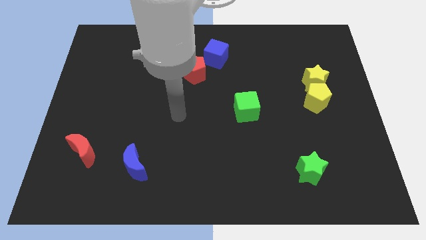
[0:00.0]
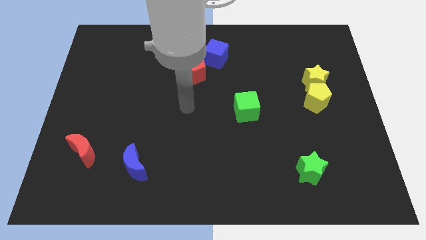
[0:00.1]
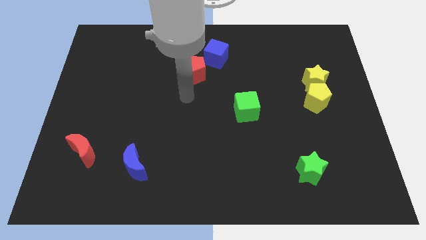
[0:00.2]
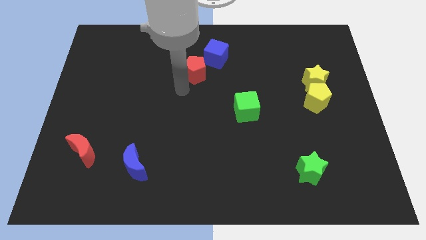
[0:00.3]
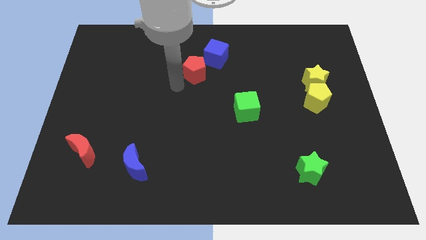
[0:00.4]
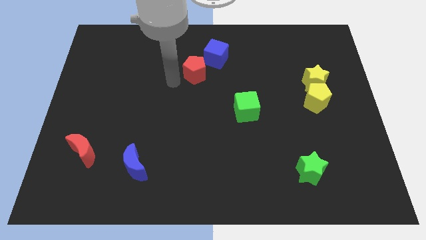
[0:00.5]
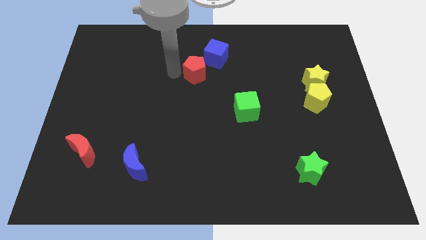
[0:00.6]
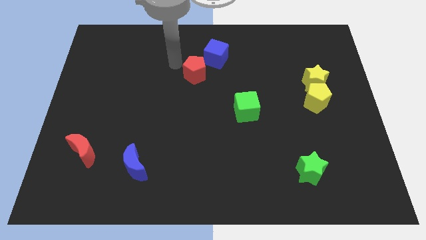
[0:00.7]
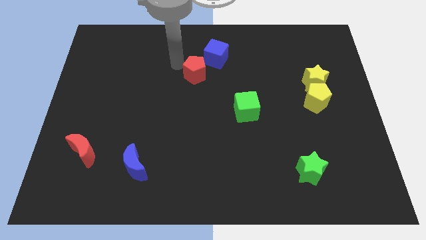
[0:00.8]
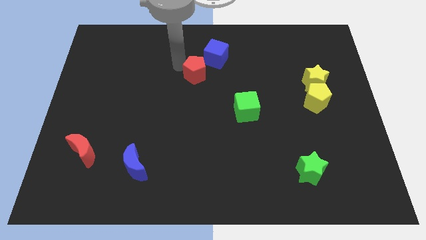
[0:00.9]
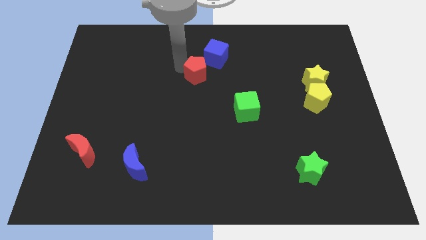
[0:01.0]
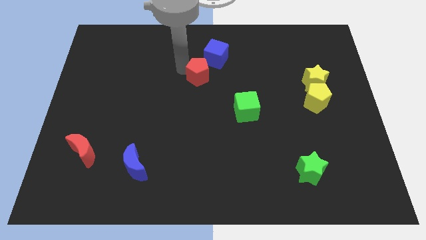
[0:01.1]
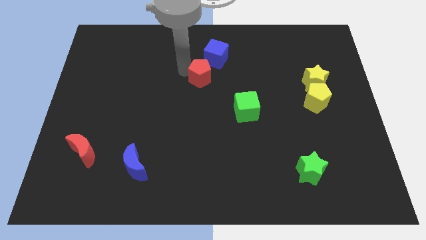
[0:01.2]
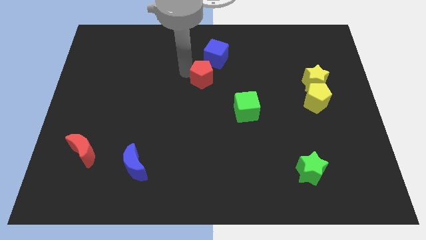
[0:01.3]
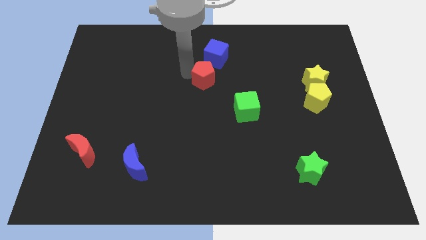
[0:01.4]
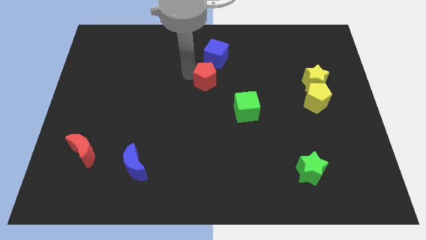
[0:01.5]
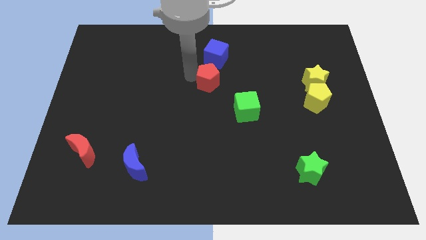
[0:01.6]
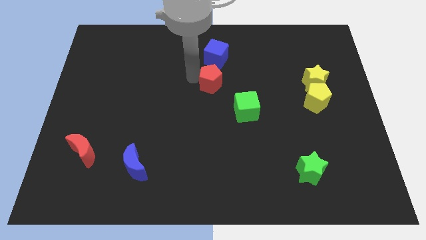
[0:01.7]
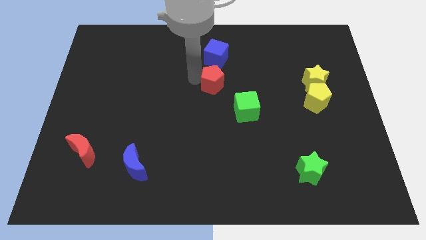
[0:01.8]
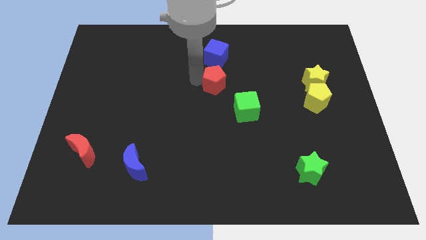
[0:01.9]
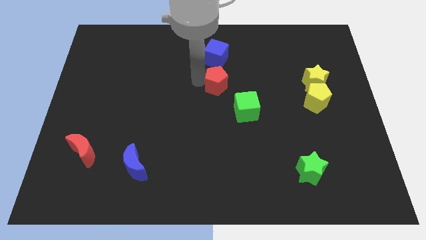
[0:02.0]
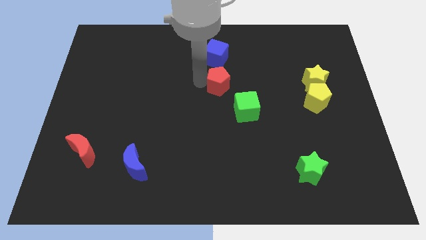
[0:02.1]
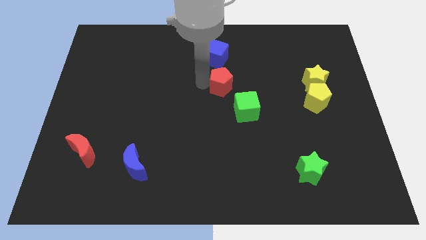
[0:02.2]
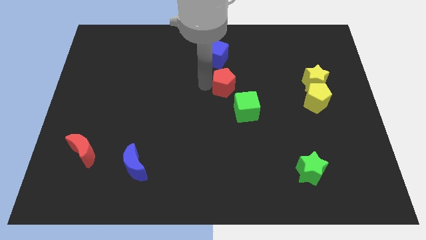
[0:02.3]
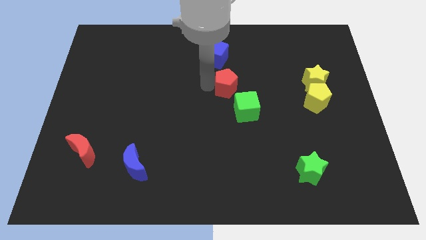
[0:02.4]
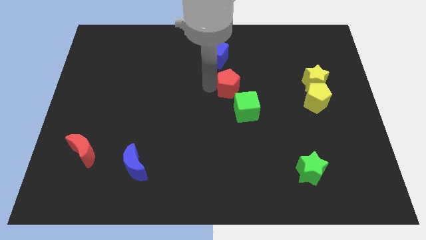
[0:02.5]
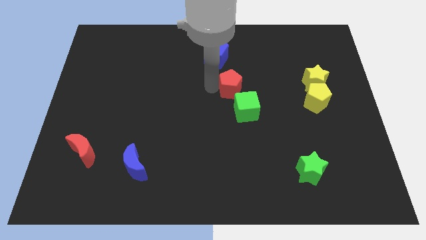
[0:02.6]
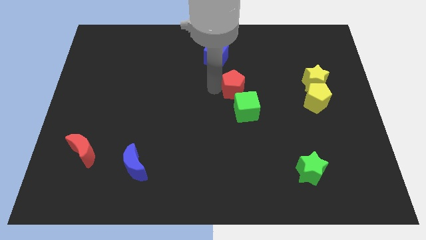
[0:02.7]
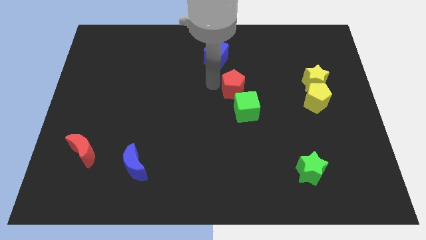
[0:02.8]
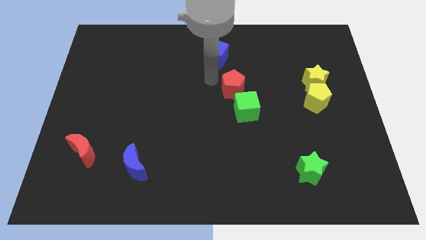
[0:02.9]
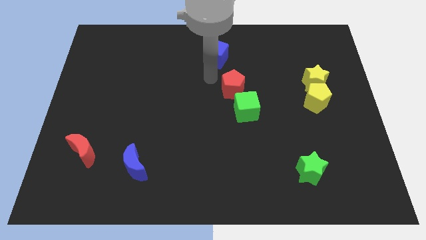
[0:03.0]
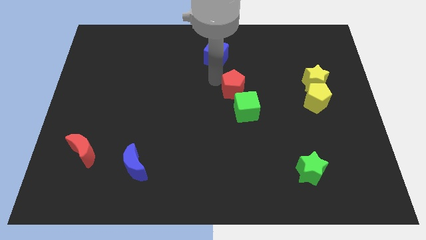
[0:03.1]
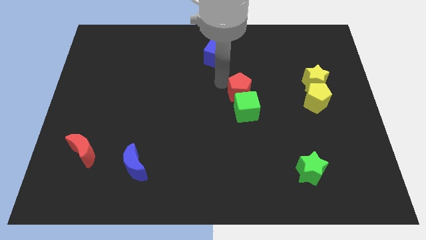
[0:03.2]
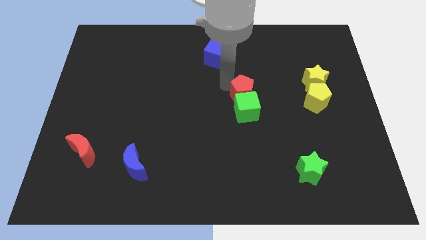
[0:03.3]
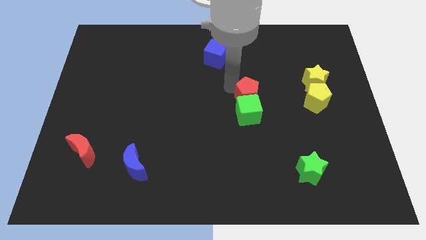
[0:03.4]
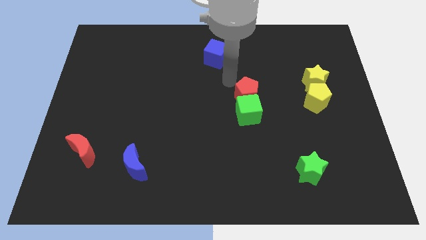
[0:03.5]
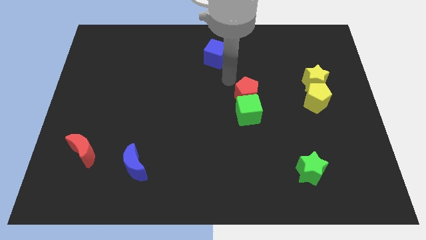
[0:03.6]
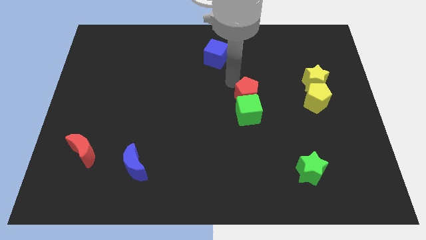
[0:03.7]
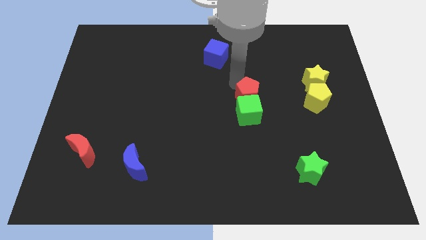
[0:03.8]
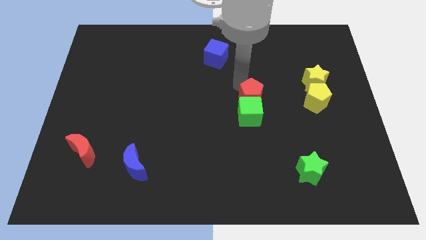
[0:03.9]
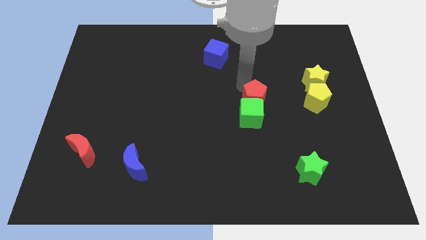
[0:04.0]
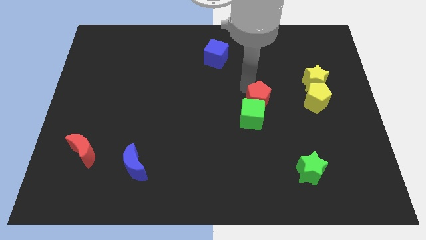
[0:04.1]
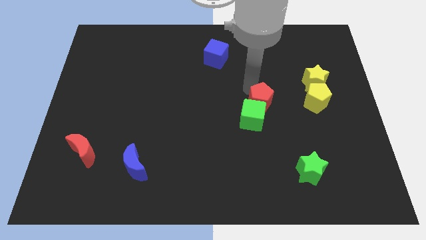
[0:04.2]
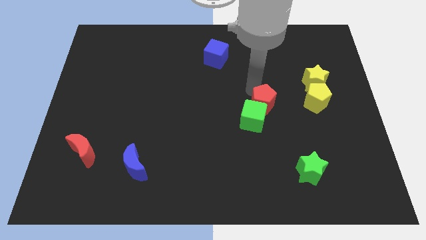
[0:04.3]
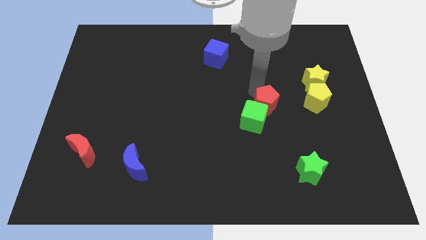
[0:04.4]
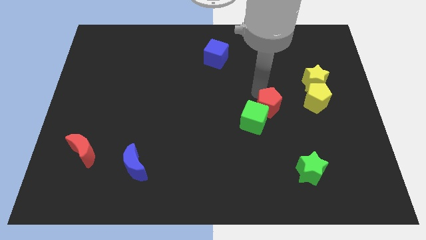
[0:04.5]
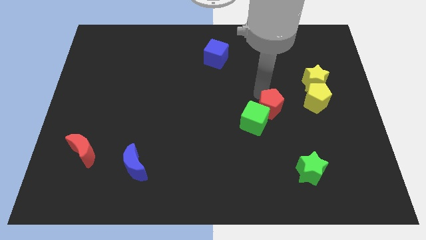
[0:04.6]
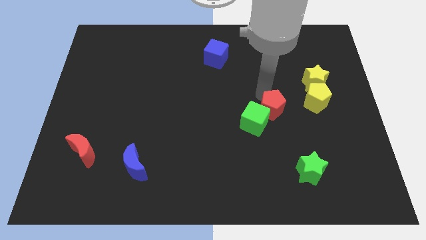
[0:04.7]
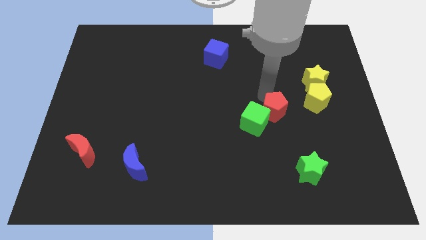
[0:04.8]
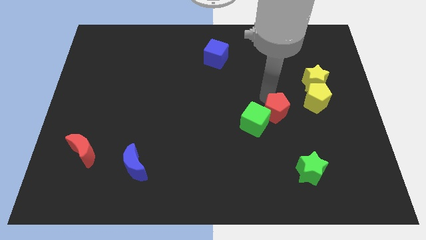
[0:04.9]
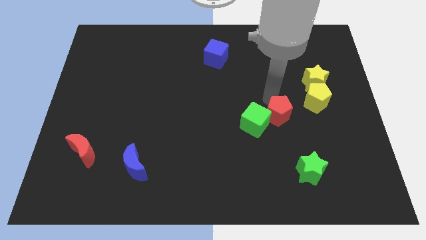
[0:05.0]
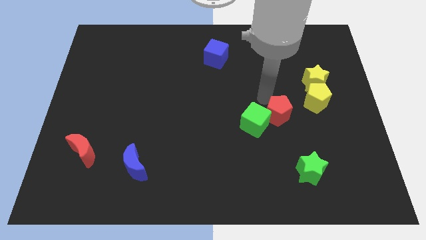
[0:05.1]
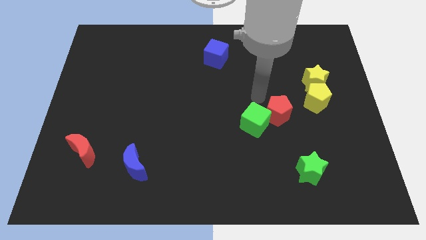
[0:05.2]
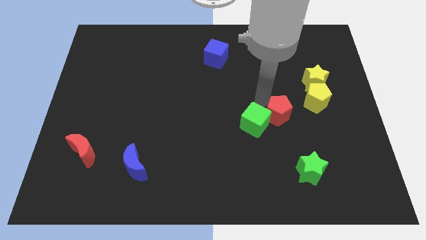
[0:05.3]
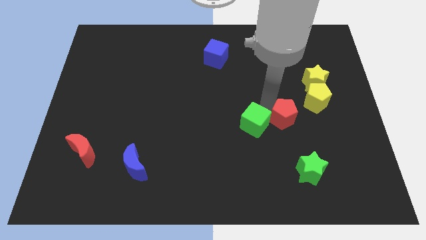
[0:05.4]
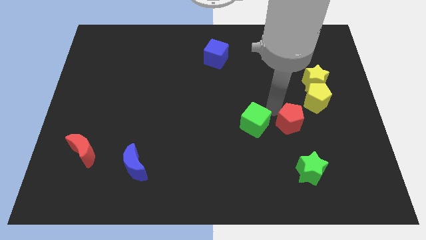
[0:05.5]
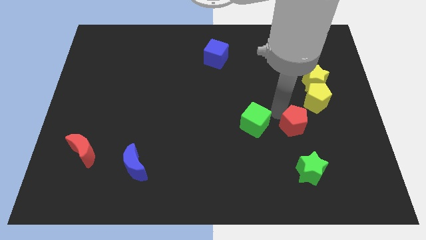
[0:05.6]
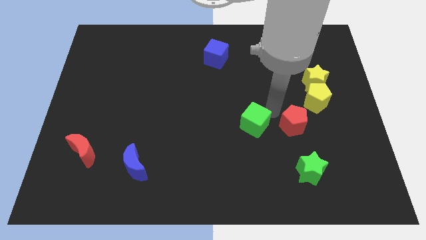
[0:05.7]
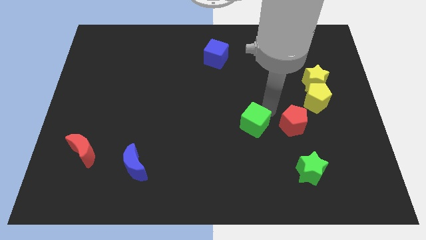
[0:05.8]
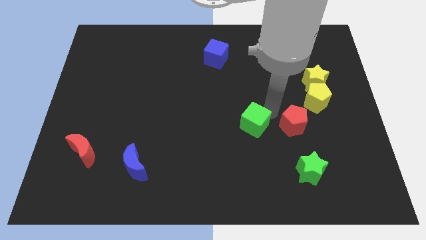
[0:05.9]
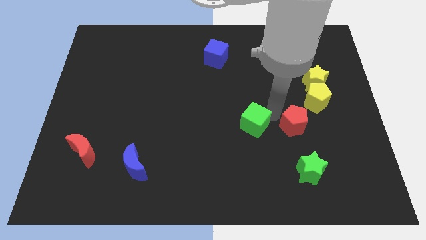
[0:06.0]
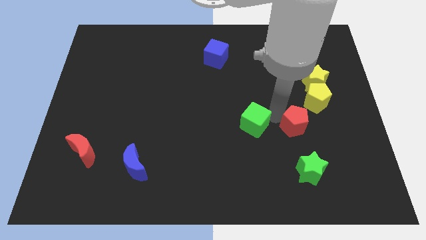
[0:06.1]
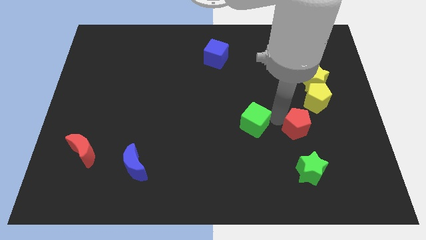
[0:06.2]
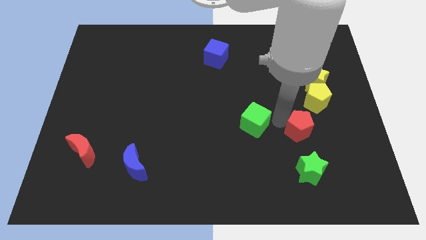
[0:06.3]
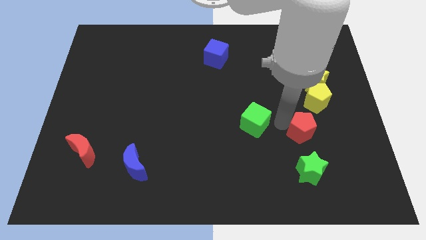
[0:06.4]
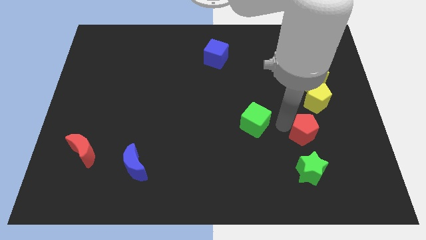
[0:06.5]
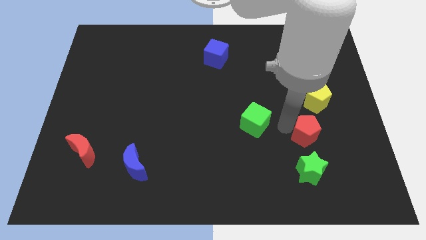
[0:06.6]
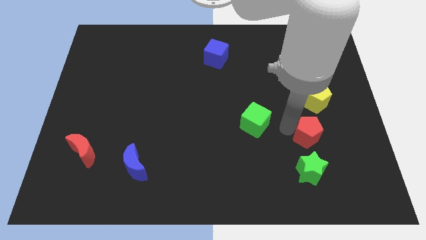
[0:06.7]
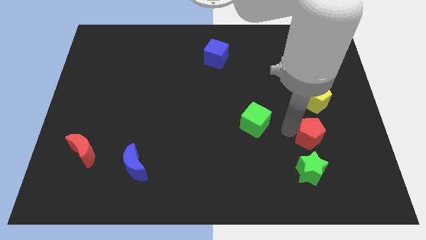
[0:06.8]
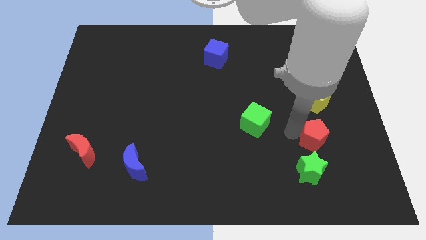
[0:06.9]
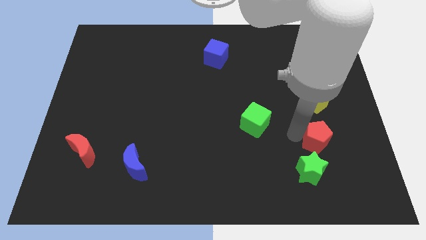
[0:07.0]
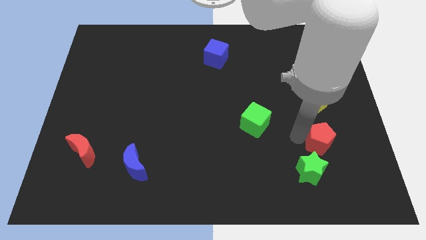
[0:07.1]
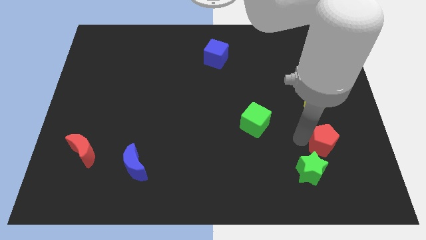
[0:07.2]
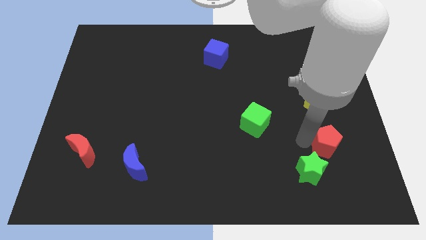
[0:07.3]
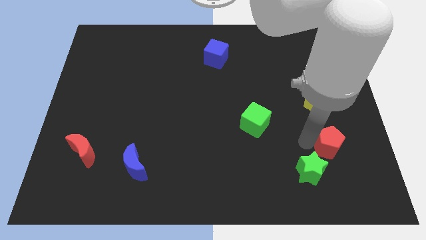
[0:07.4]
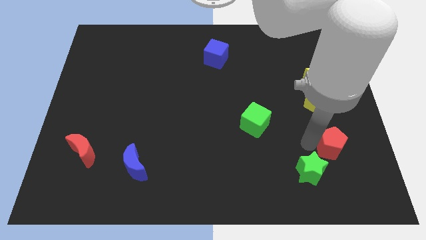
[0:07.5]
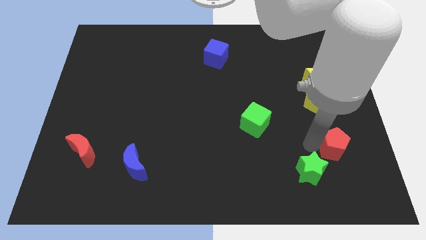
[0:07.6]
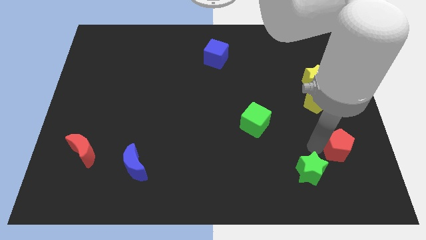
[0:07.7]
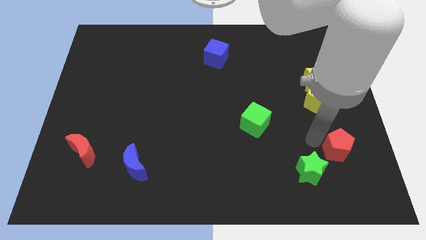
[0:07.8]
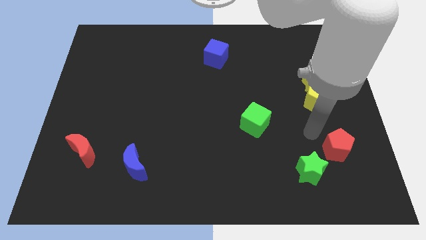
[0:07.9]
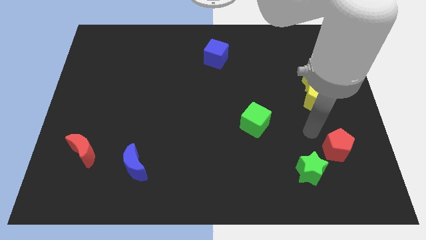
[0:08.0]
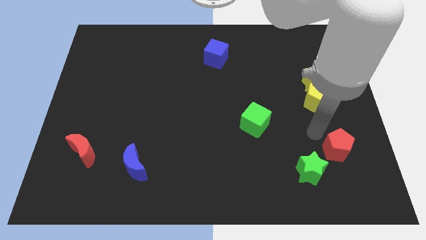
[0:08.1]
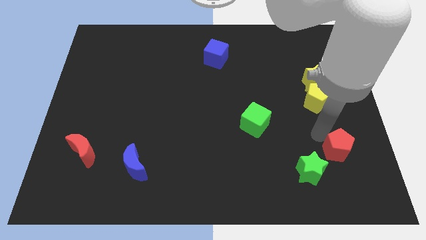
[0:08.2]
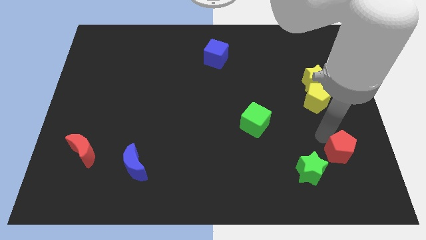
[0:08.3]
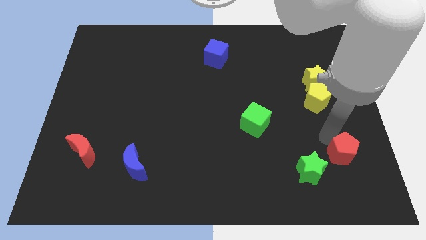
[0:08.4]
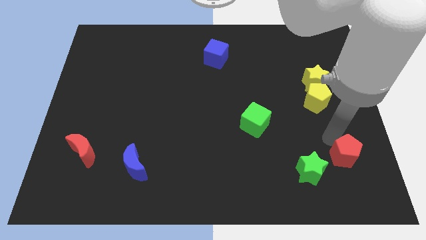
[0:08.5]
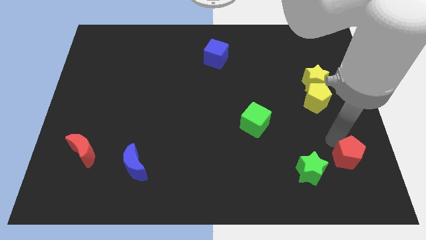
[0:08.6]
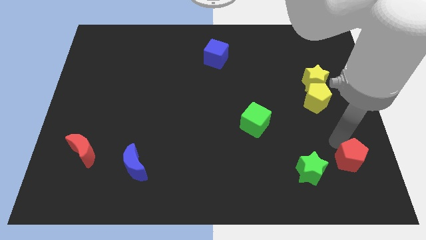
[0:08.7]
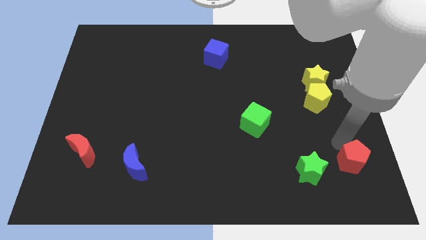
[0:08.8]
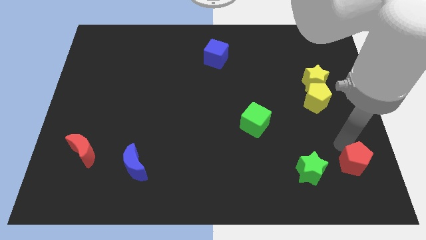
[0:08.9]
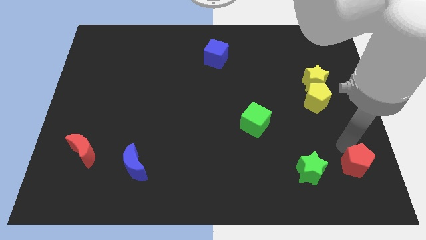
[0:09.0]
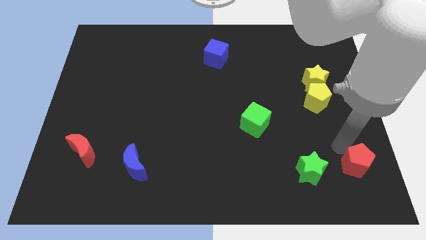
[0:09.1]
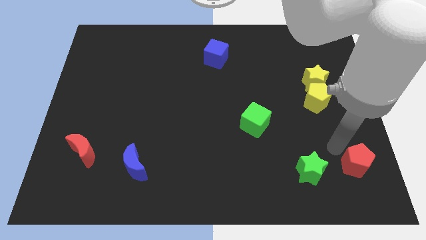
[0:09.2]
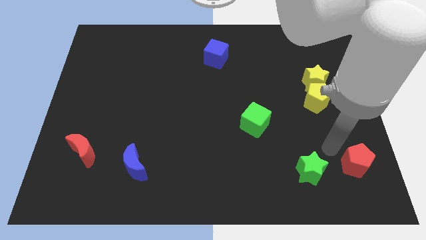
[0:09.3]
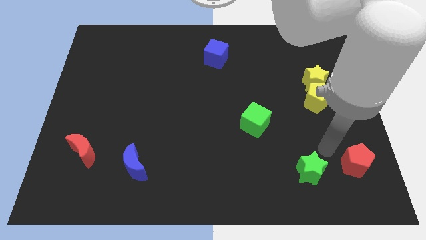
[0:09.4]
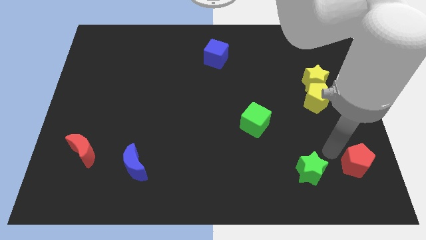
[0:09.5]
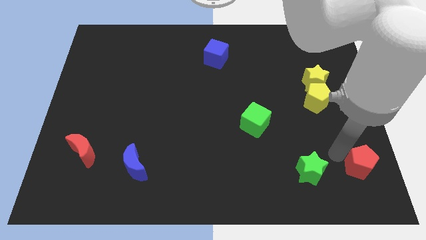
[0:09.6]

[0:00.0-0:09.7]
push the red pentagon to the bottom right
